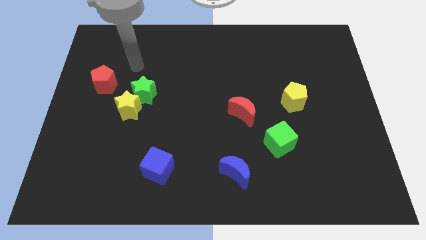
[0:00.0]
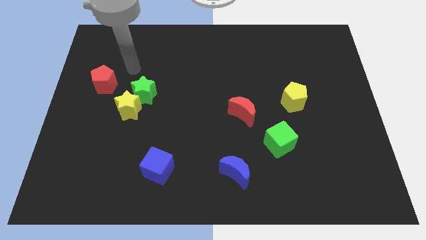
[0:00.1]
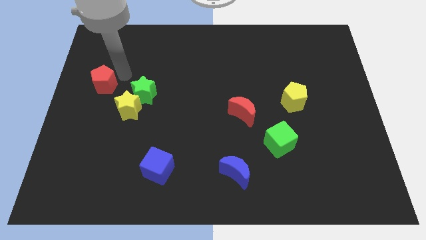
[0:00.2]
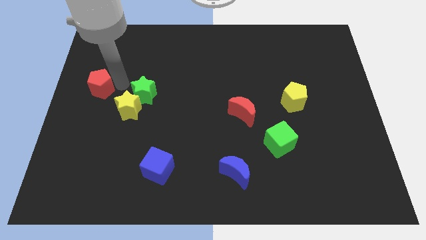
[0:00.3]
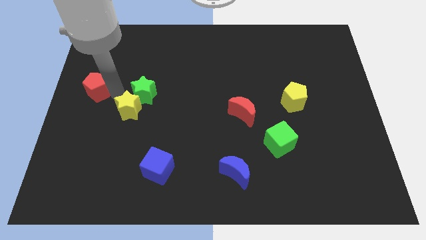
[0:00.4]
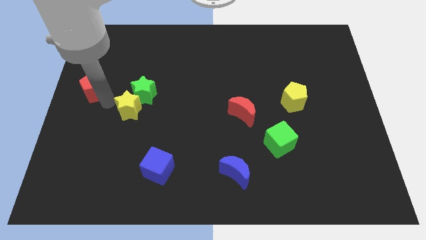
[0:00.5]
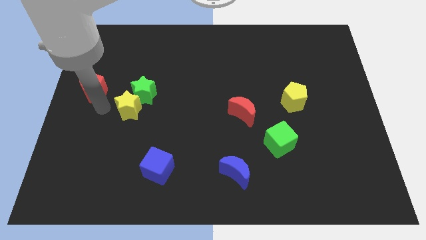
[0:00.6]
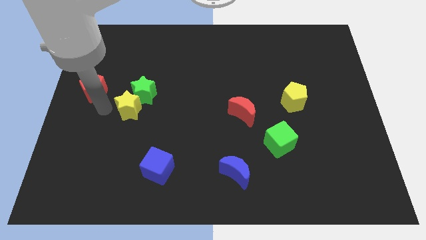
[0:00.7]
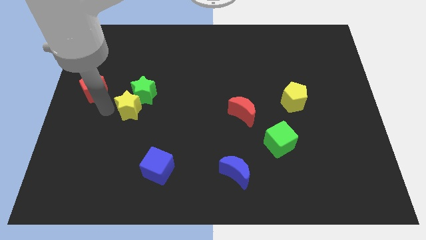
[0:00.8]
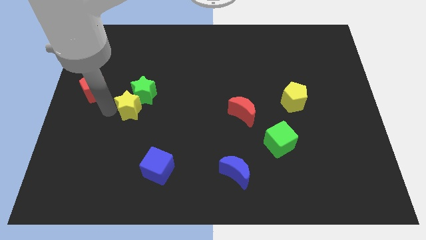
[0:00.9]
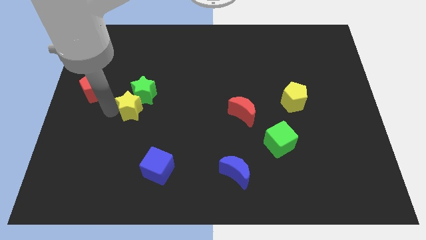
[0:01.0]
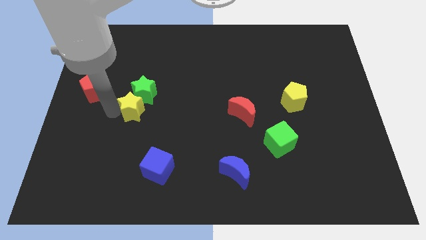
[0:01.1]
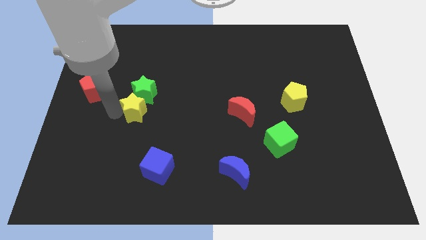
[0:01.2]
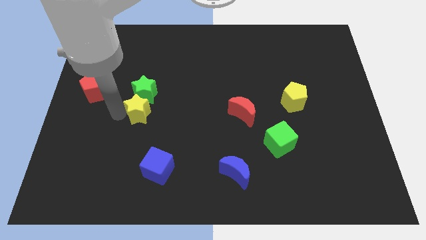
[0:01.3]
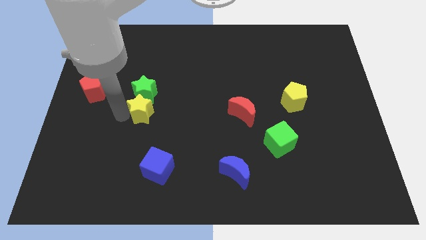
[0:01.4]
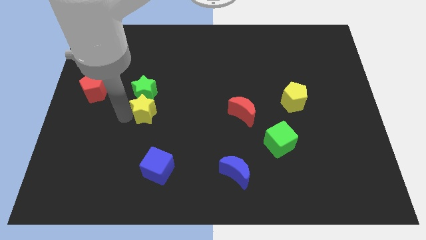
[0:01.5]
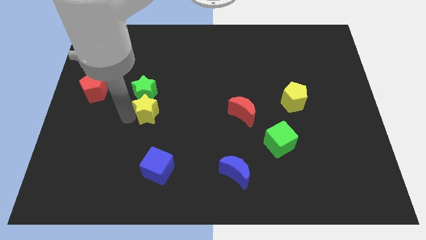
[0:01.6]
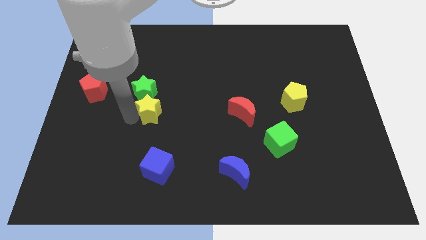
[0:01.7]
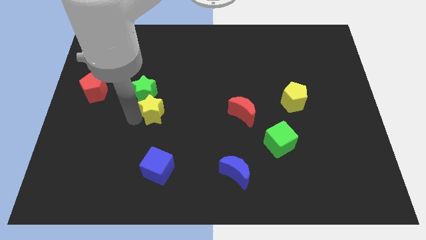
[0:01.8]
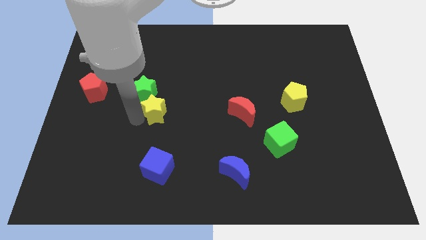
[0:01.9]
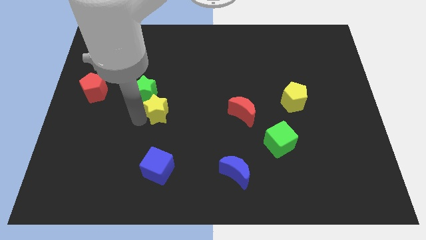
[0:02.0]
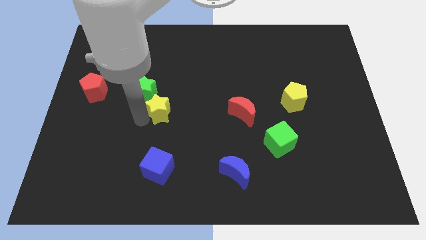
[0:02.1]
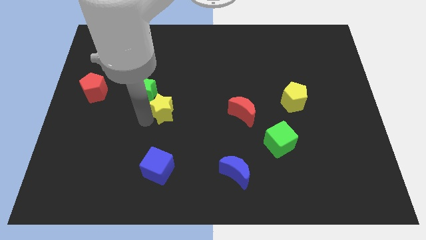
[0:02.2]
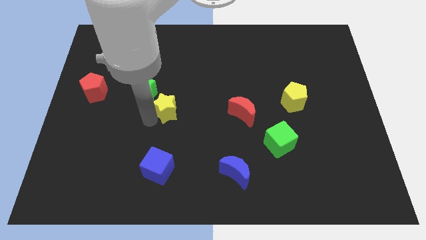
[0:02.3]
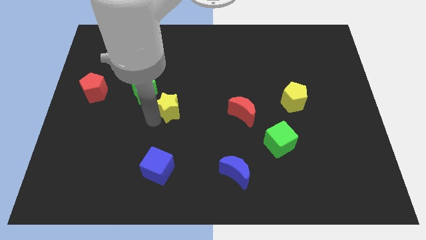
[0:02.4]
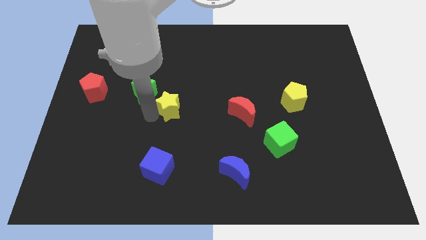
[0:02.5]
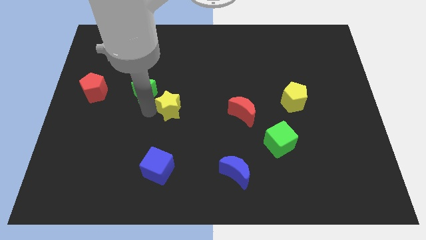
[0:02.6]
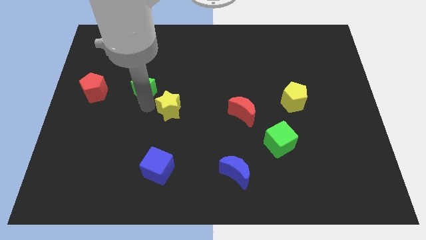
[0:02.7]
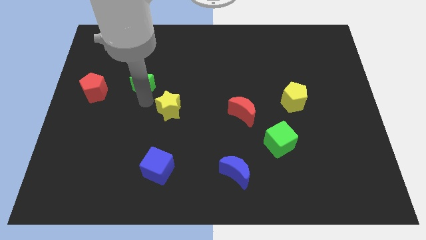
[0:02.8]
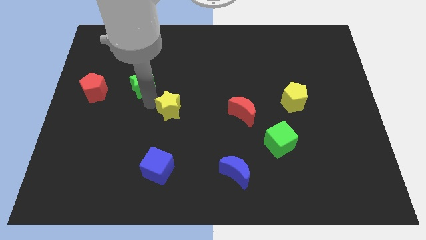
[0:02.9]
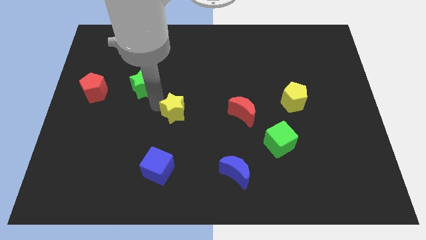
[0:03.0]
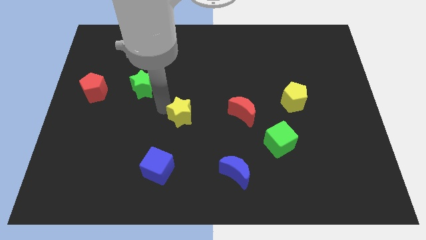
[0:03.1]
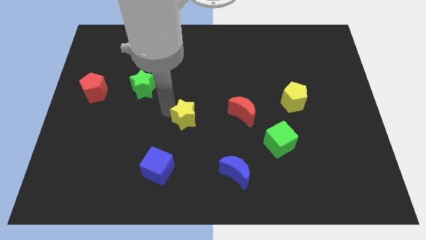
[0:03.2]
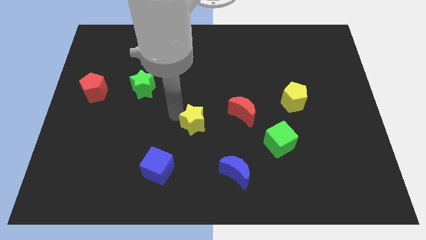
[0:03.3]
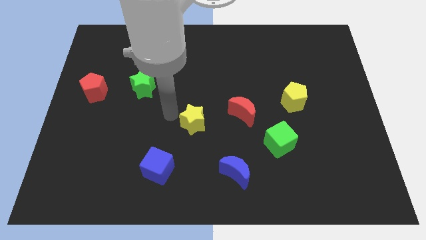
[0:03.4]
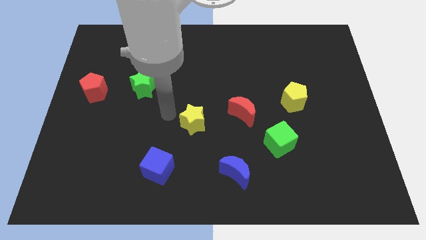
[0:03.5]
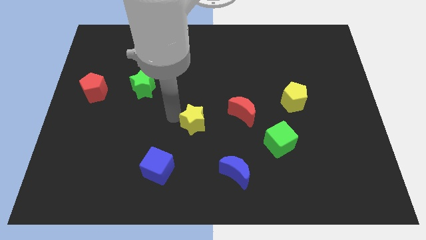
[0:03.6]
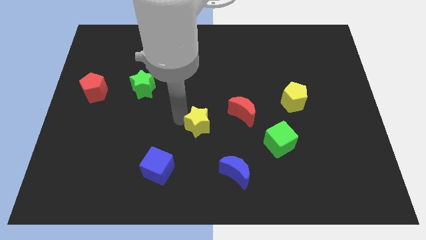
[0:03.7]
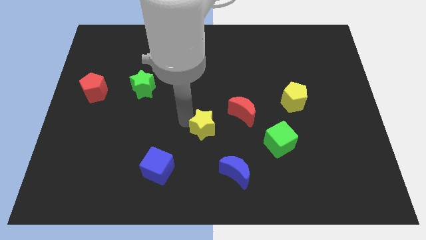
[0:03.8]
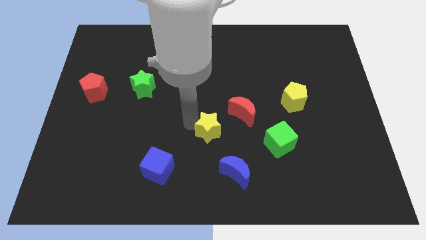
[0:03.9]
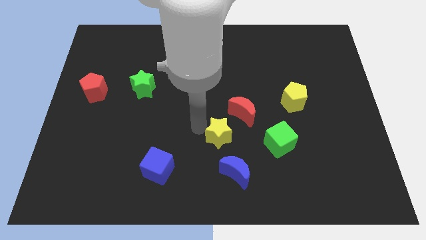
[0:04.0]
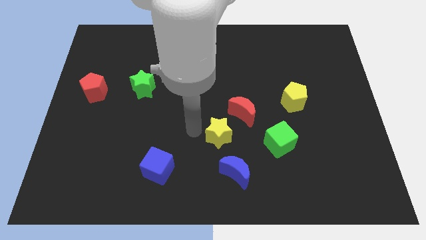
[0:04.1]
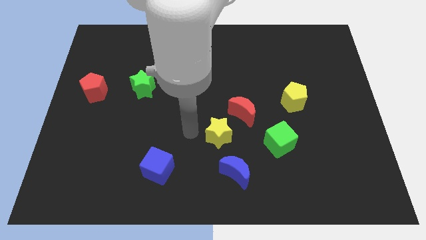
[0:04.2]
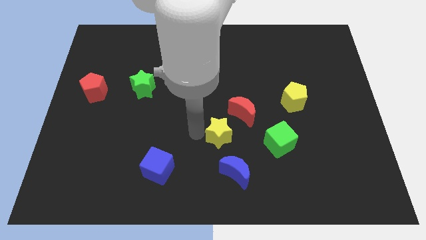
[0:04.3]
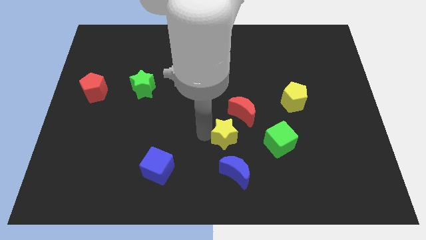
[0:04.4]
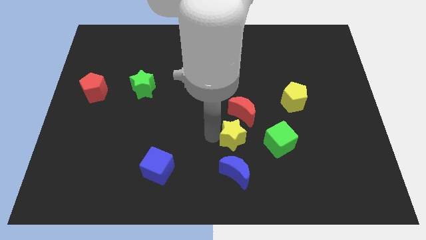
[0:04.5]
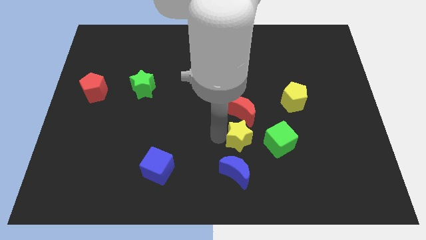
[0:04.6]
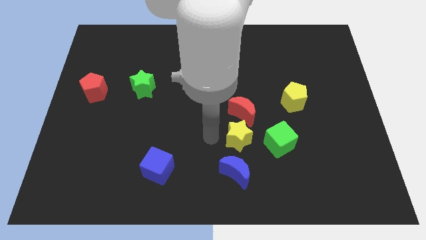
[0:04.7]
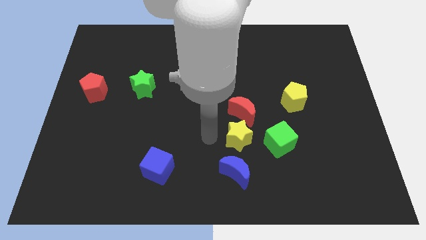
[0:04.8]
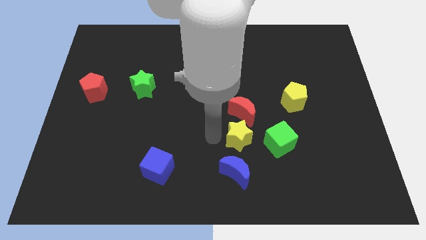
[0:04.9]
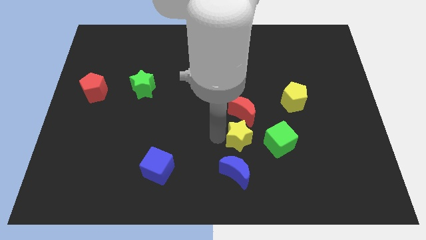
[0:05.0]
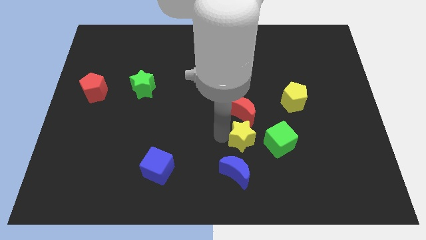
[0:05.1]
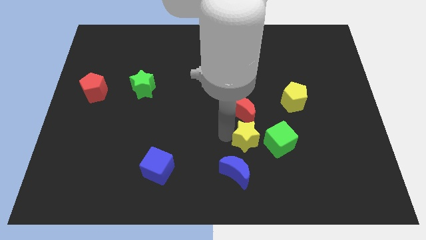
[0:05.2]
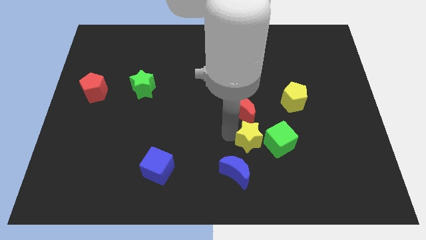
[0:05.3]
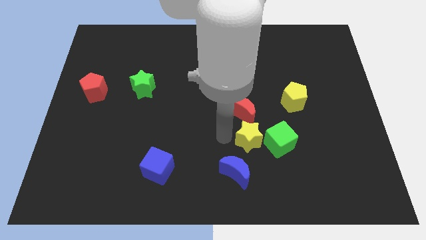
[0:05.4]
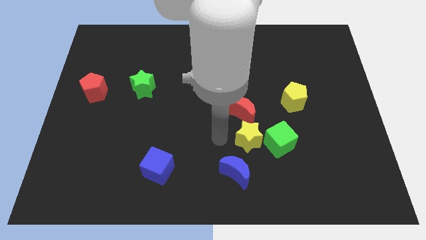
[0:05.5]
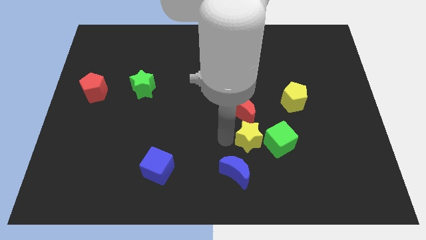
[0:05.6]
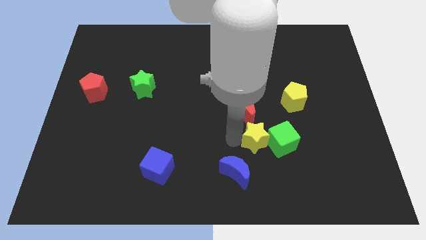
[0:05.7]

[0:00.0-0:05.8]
slide the yellow star to the green cube

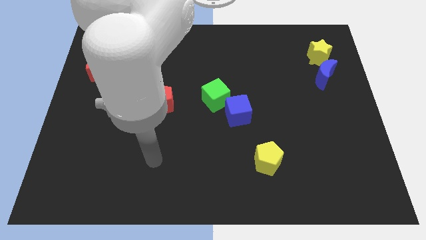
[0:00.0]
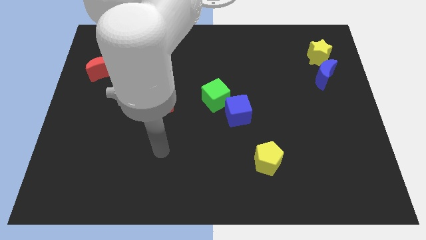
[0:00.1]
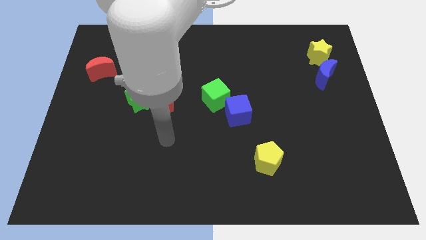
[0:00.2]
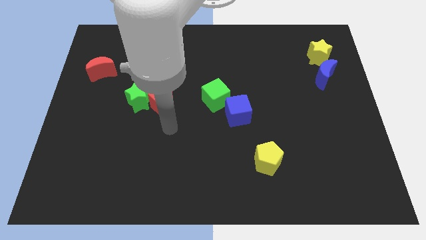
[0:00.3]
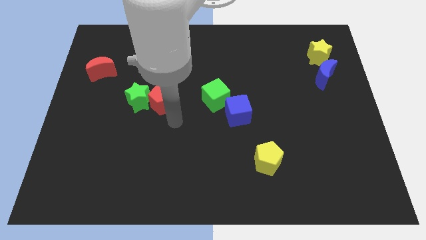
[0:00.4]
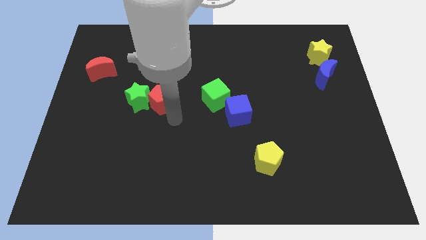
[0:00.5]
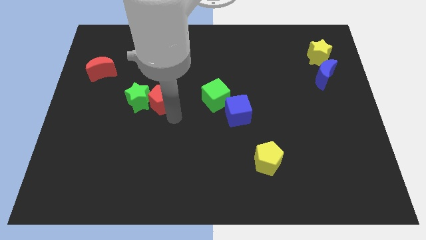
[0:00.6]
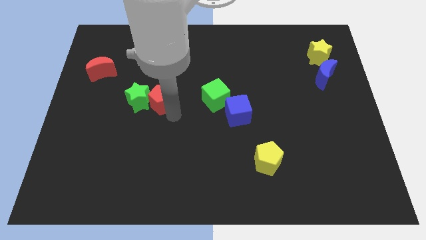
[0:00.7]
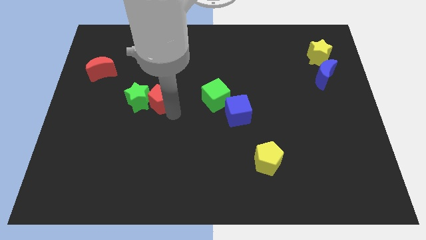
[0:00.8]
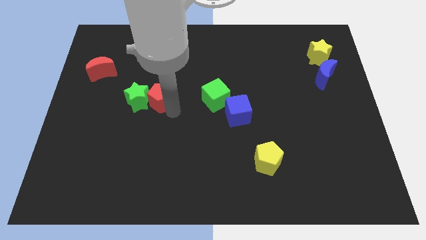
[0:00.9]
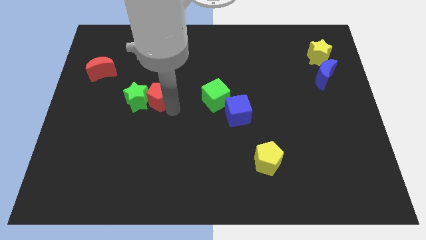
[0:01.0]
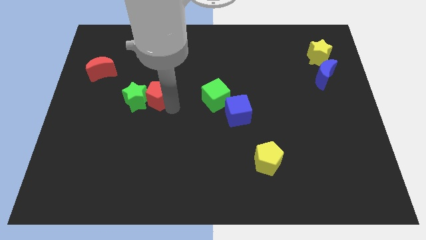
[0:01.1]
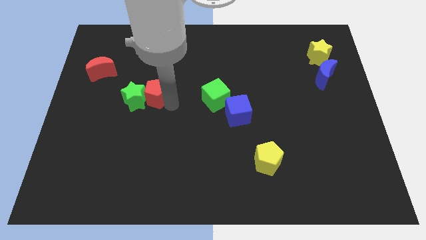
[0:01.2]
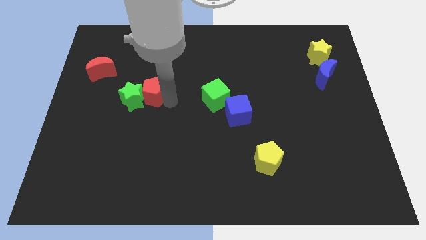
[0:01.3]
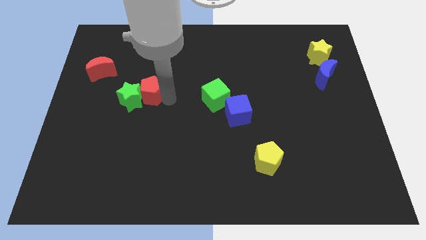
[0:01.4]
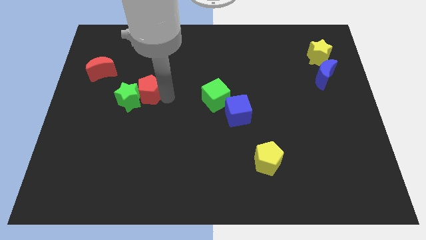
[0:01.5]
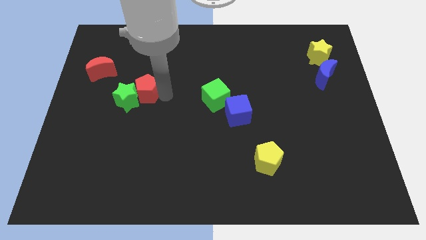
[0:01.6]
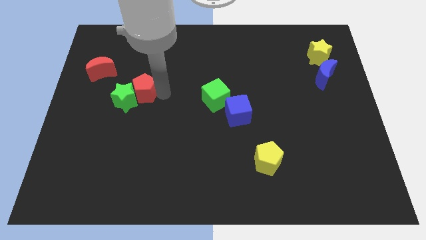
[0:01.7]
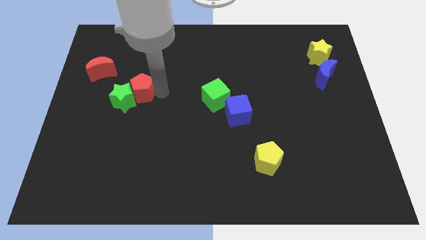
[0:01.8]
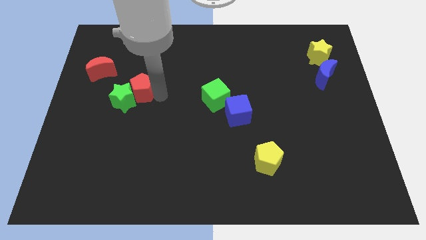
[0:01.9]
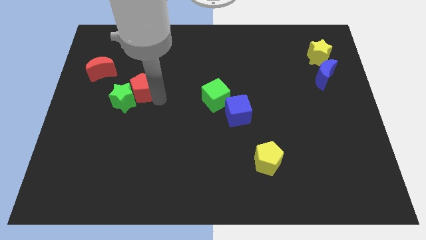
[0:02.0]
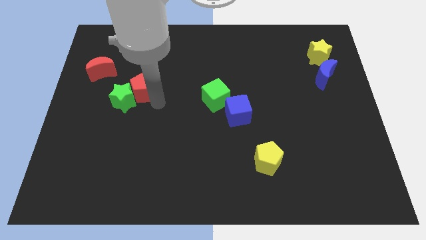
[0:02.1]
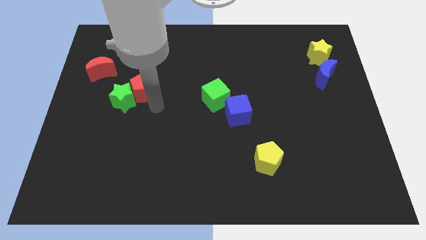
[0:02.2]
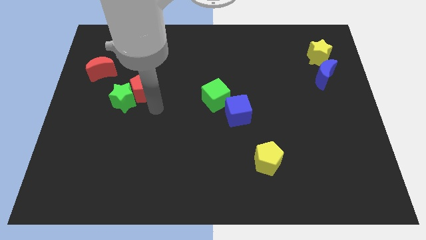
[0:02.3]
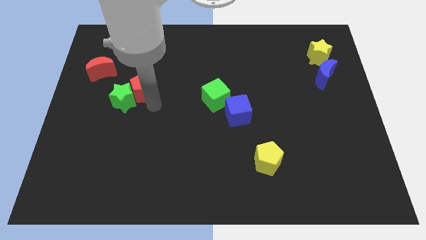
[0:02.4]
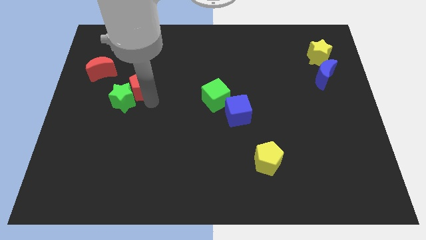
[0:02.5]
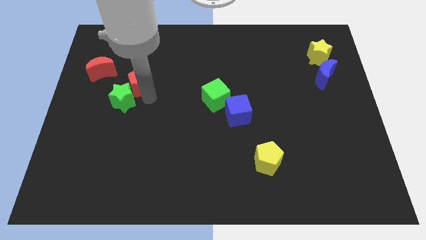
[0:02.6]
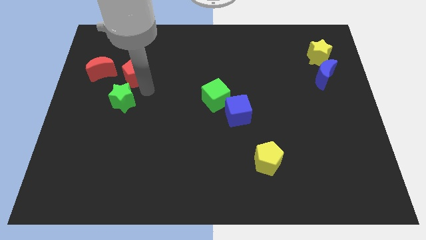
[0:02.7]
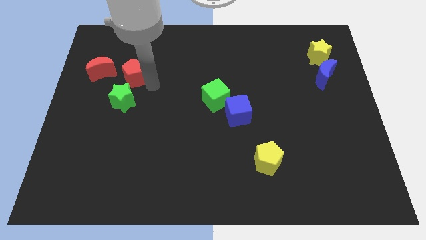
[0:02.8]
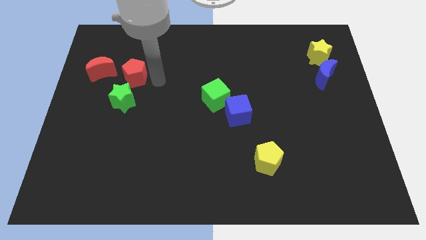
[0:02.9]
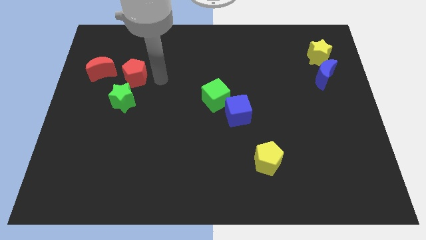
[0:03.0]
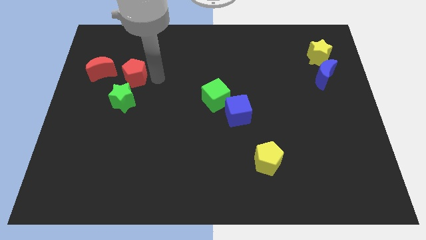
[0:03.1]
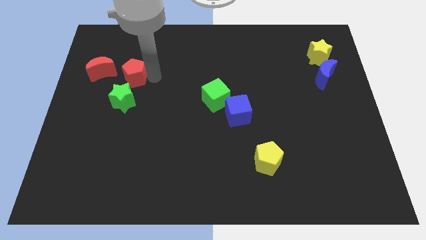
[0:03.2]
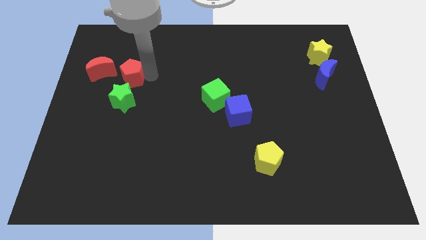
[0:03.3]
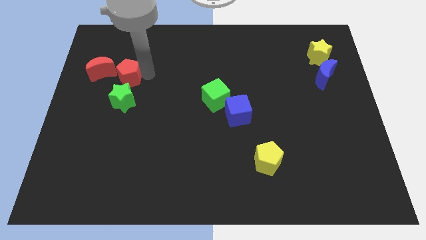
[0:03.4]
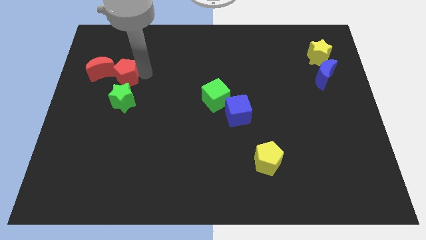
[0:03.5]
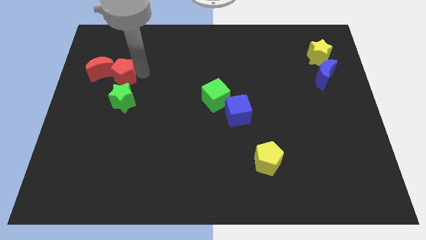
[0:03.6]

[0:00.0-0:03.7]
slide the red pentagon towards the red moon
